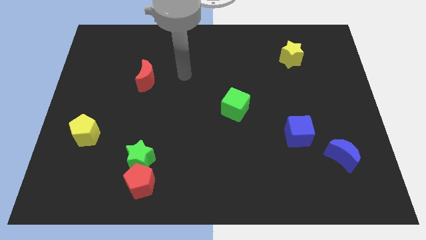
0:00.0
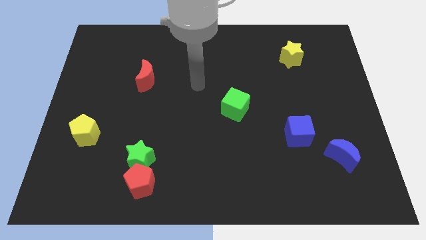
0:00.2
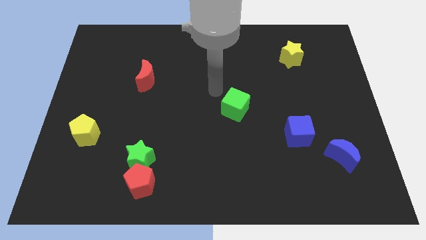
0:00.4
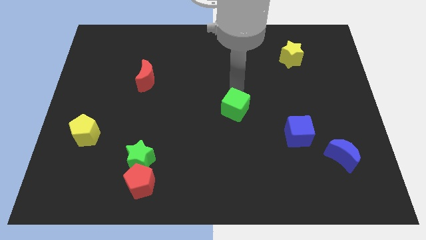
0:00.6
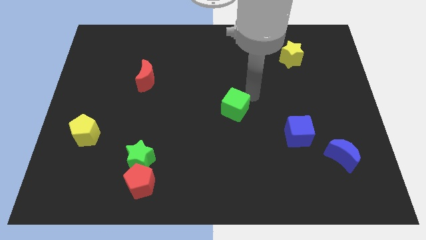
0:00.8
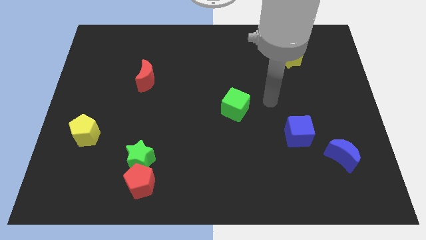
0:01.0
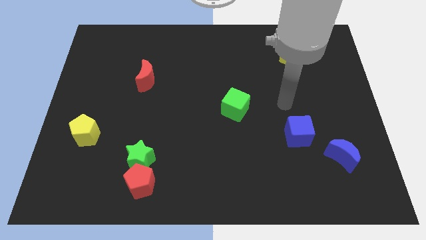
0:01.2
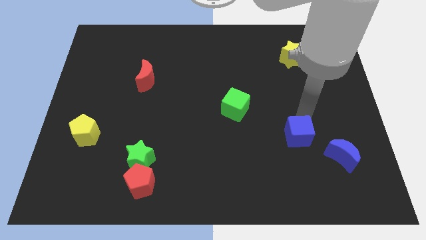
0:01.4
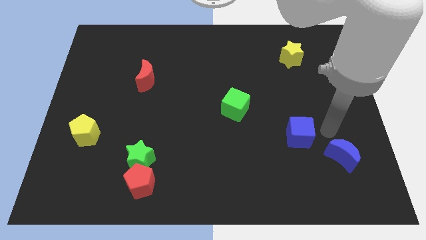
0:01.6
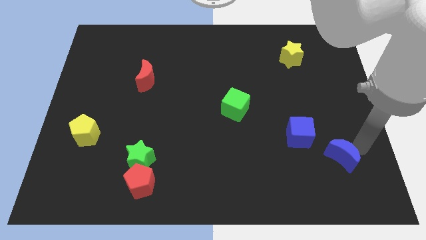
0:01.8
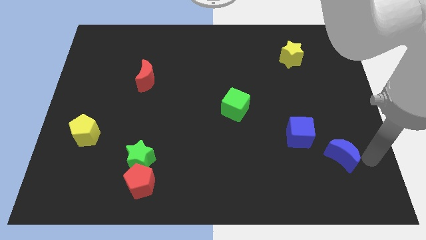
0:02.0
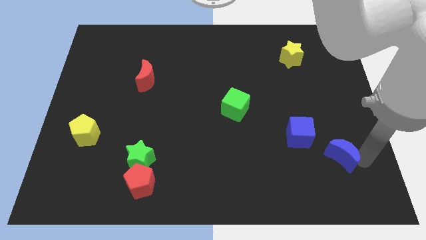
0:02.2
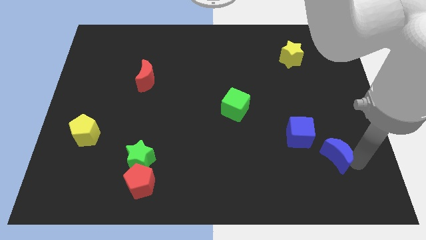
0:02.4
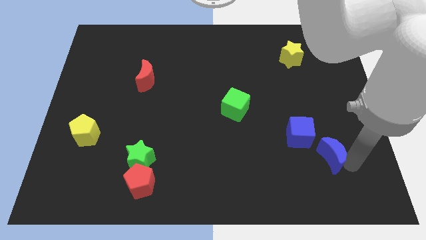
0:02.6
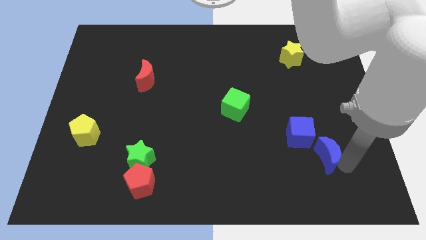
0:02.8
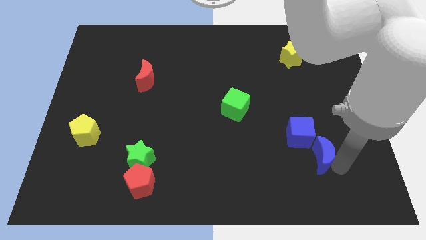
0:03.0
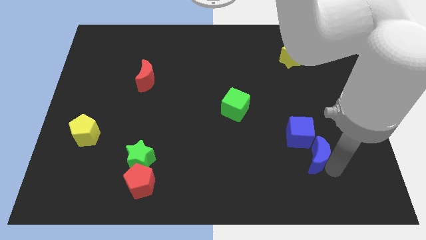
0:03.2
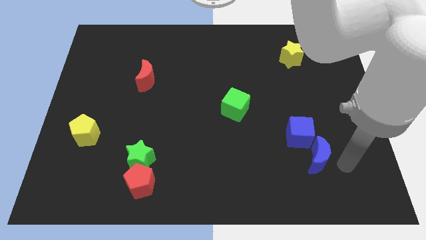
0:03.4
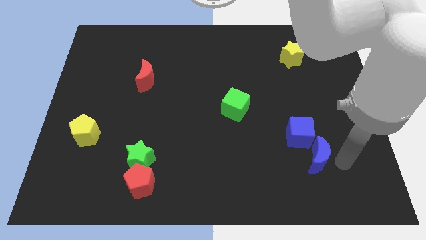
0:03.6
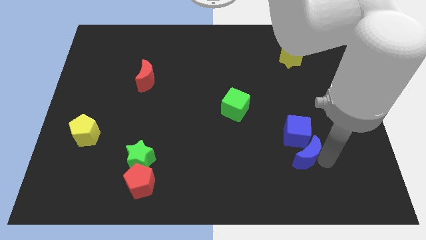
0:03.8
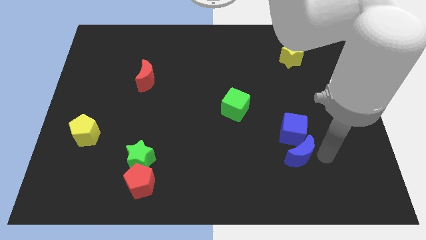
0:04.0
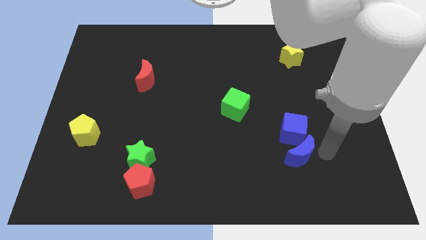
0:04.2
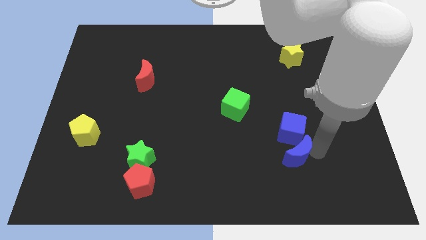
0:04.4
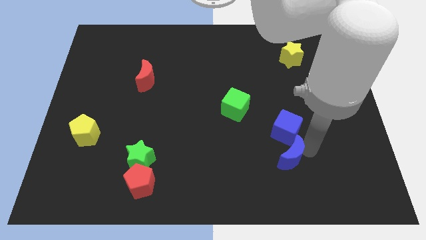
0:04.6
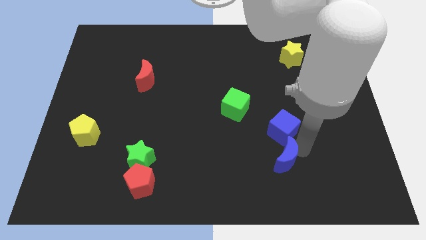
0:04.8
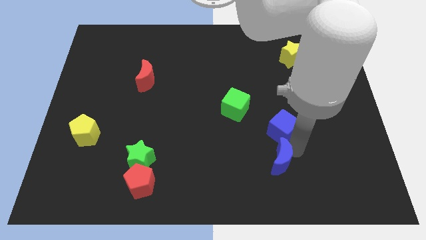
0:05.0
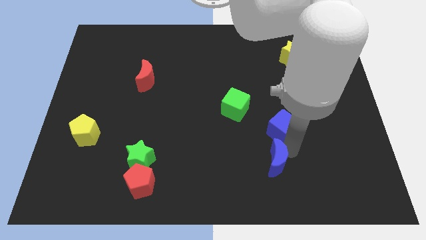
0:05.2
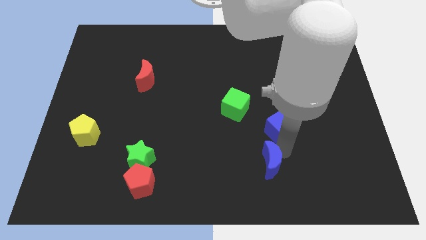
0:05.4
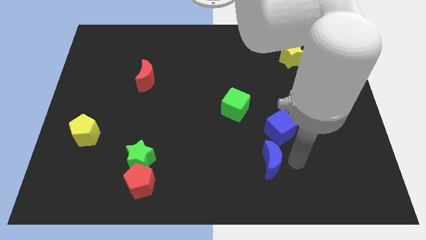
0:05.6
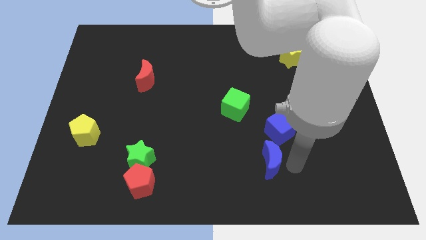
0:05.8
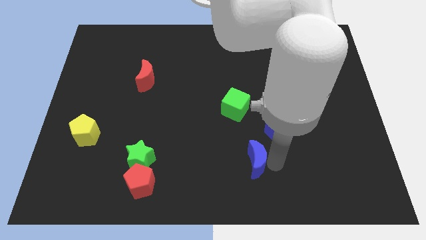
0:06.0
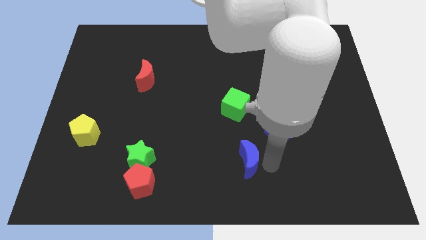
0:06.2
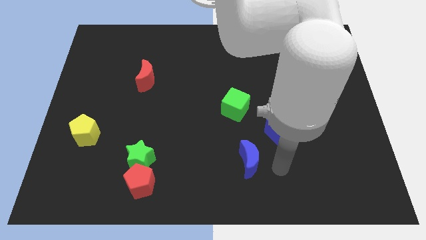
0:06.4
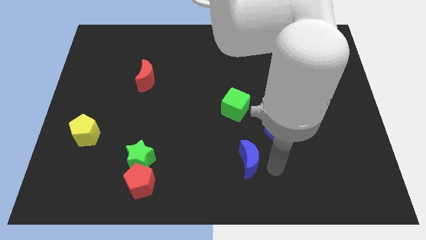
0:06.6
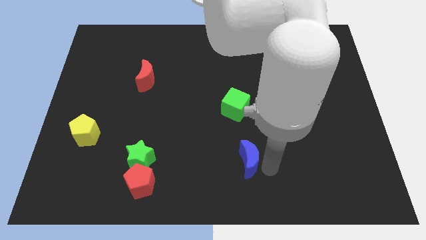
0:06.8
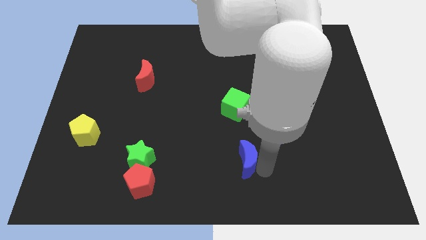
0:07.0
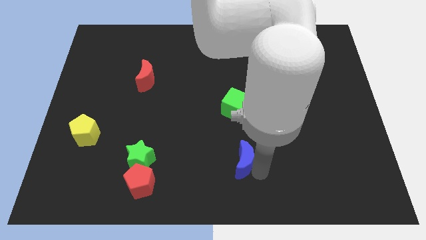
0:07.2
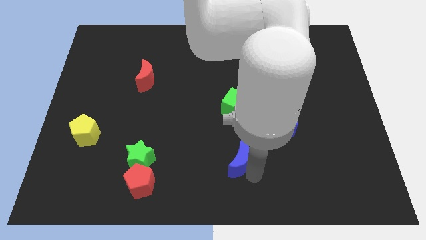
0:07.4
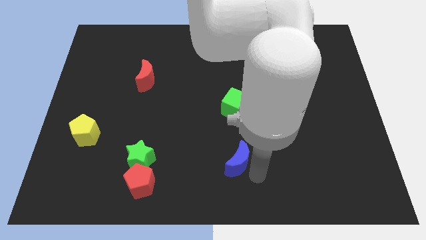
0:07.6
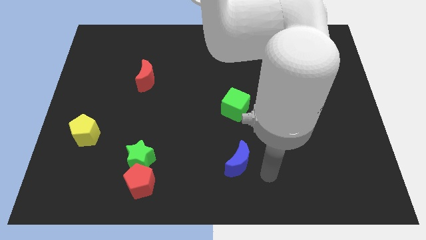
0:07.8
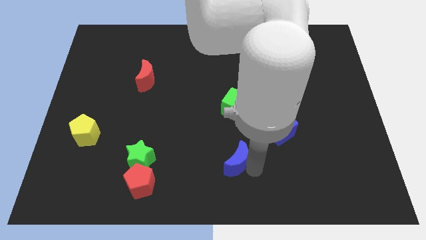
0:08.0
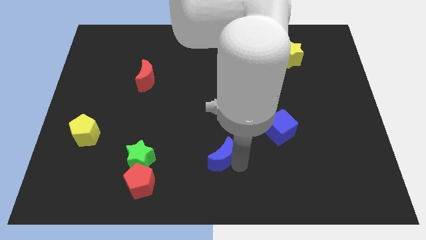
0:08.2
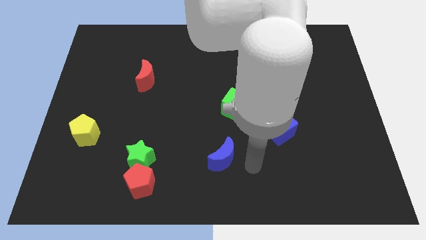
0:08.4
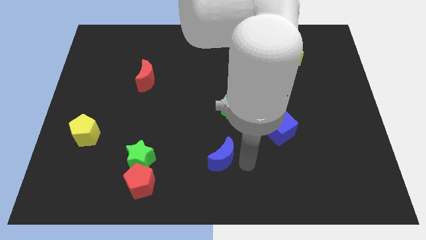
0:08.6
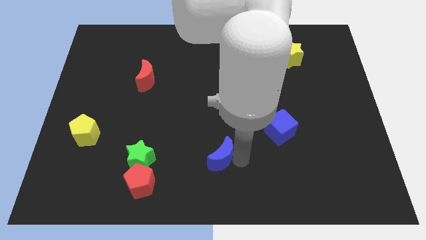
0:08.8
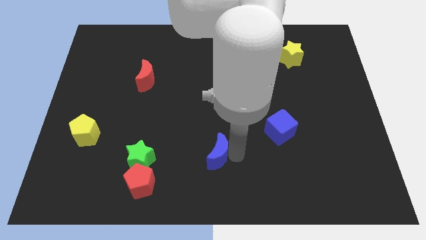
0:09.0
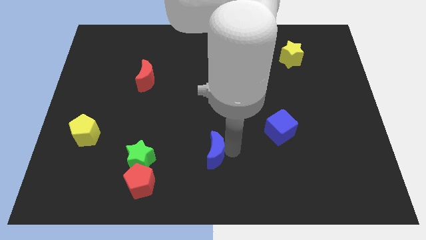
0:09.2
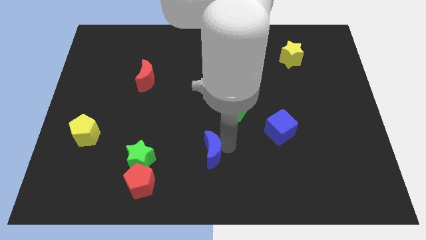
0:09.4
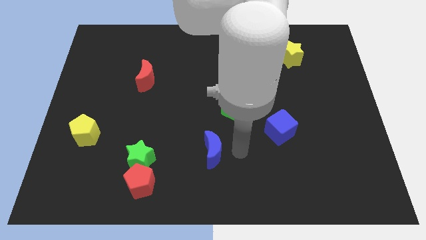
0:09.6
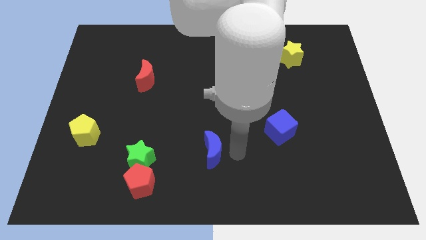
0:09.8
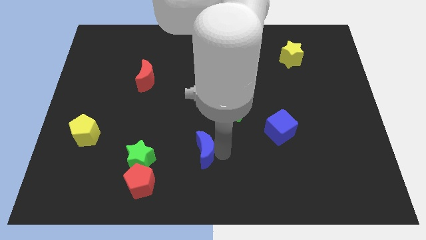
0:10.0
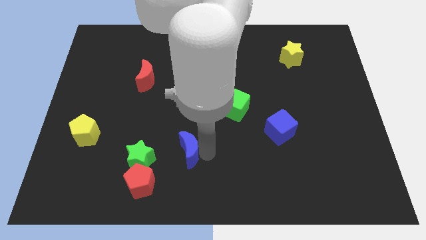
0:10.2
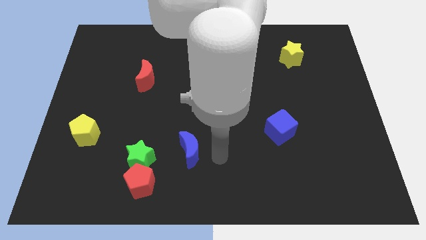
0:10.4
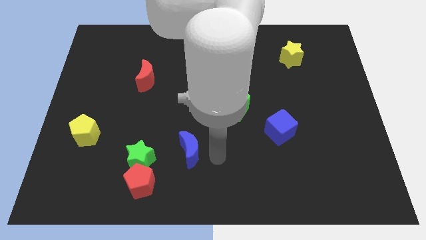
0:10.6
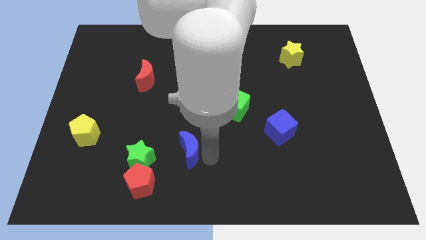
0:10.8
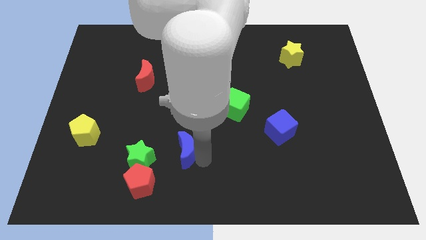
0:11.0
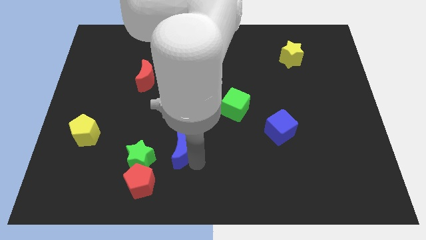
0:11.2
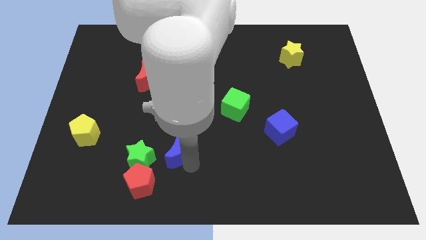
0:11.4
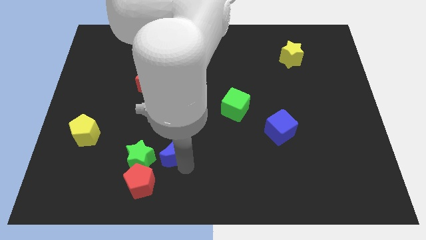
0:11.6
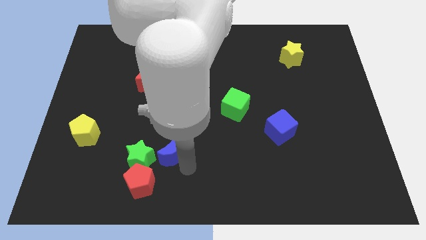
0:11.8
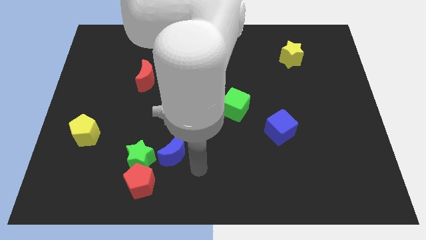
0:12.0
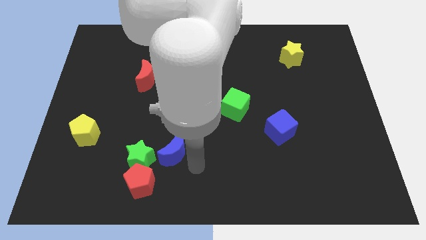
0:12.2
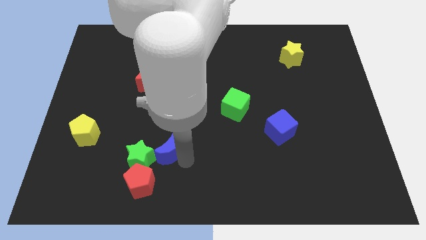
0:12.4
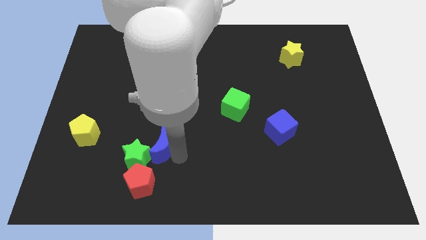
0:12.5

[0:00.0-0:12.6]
push the blue moon above the red pentagon

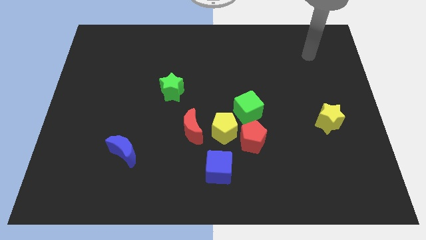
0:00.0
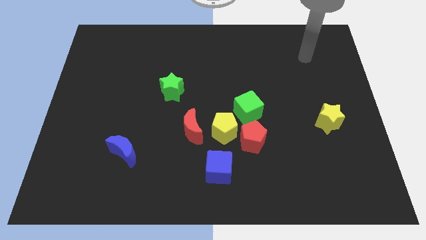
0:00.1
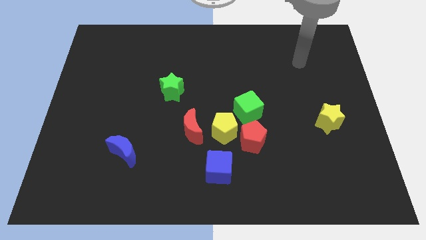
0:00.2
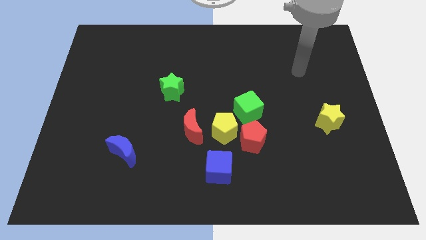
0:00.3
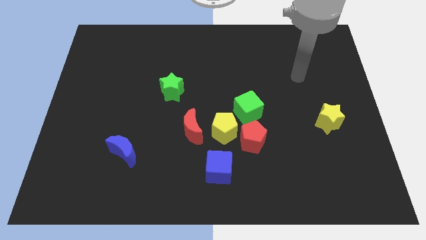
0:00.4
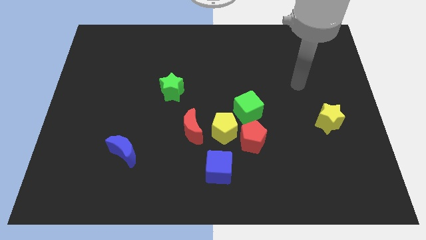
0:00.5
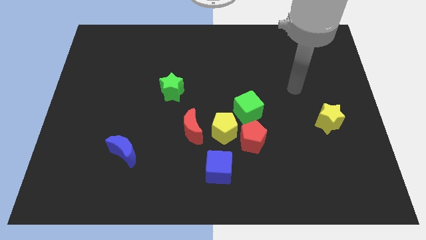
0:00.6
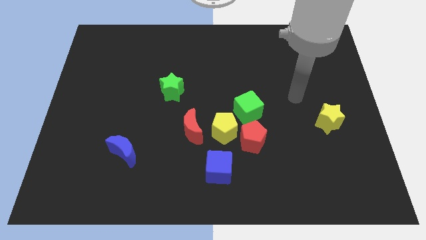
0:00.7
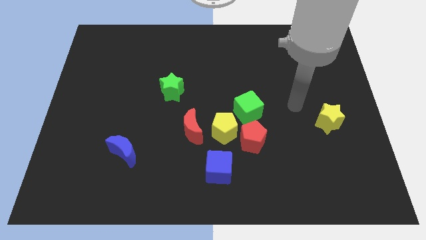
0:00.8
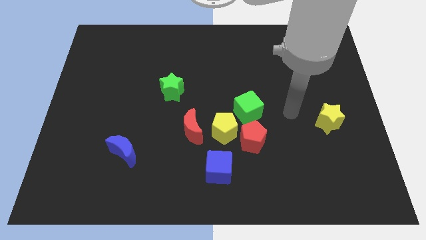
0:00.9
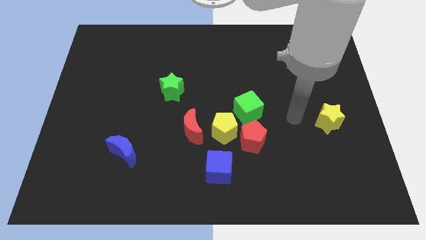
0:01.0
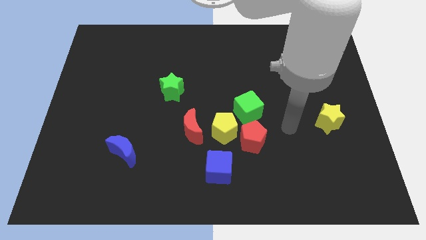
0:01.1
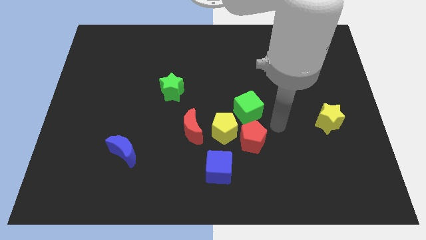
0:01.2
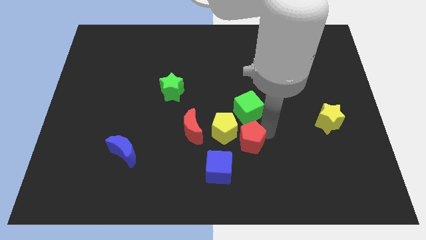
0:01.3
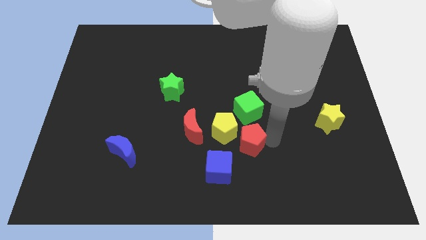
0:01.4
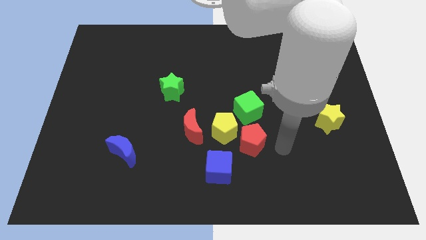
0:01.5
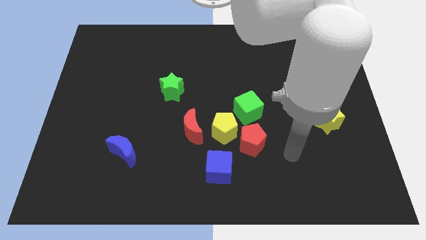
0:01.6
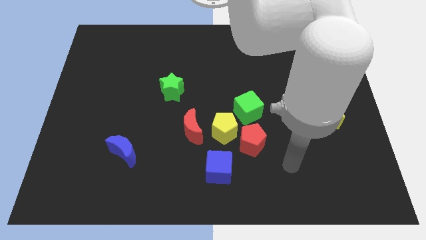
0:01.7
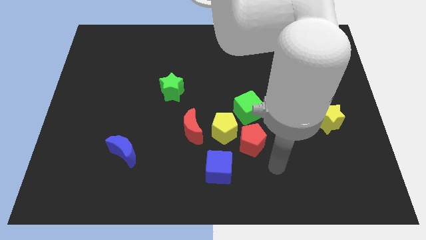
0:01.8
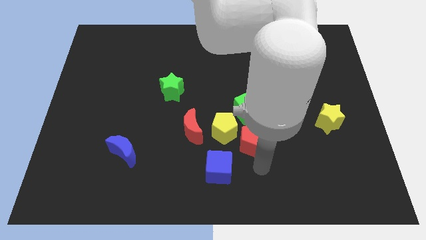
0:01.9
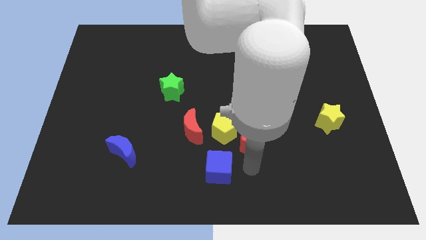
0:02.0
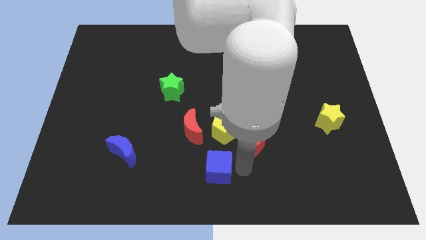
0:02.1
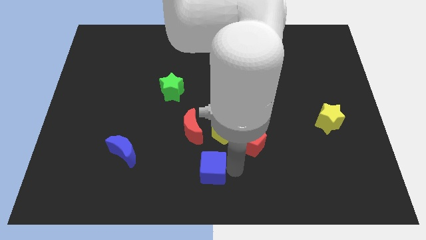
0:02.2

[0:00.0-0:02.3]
put the blue cube to the bottom of the red moon
